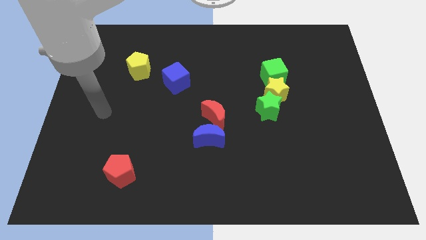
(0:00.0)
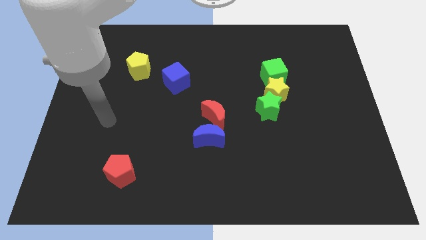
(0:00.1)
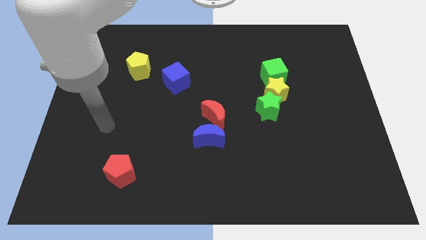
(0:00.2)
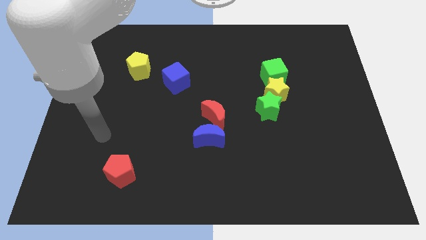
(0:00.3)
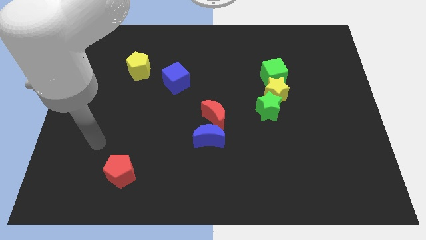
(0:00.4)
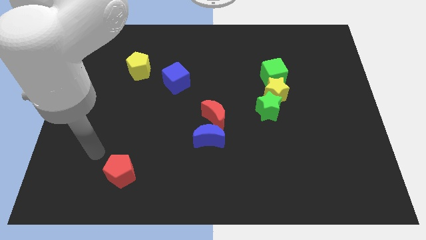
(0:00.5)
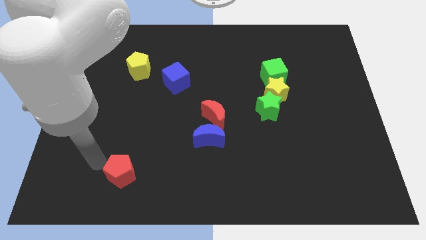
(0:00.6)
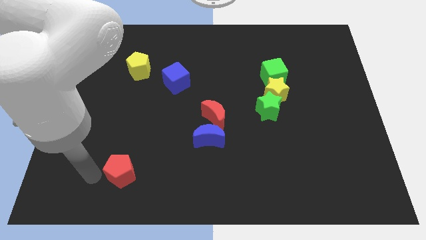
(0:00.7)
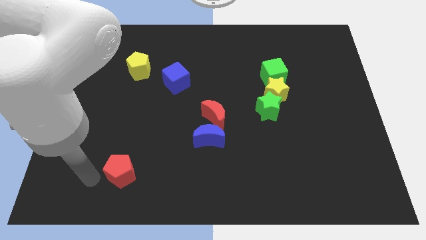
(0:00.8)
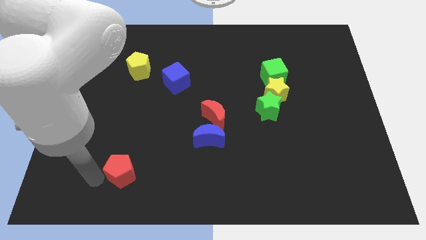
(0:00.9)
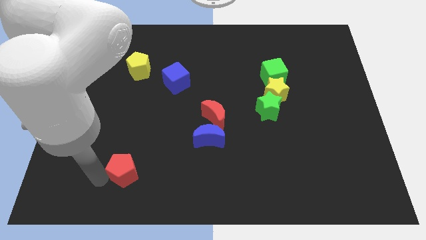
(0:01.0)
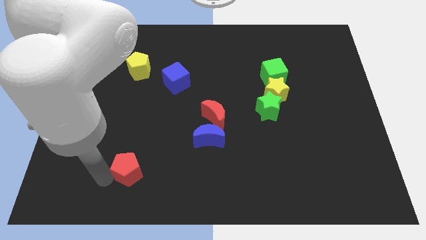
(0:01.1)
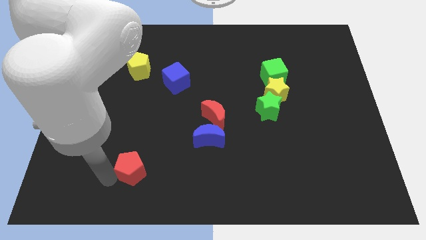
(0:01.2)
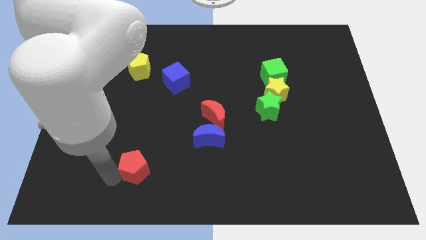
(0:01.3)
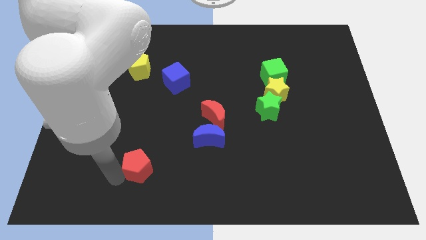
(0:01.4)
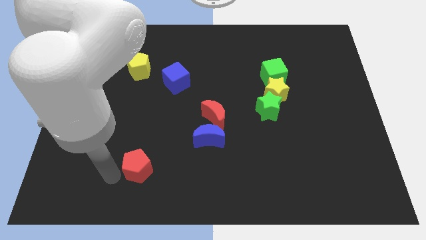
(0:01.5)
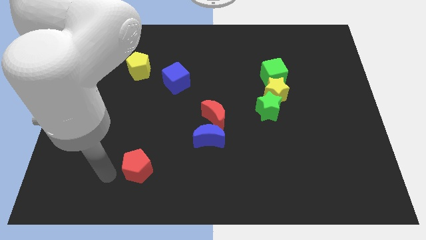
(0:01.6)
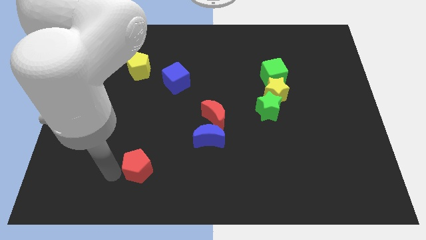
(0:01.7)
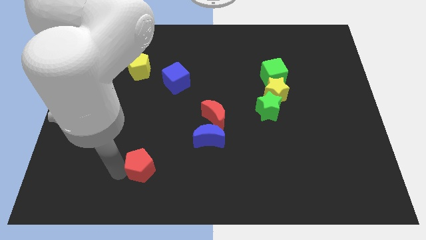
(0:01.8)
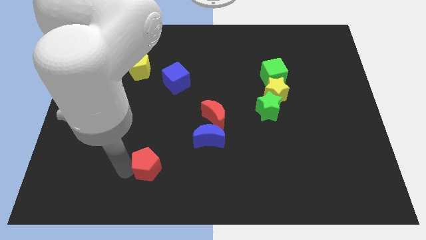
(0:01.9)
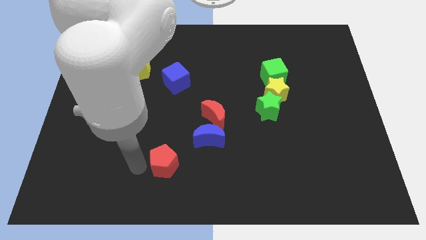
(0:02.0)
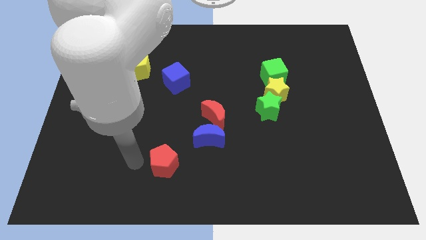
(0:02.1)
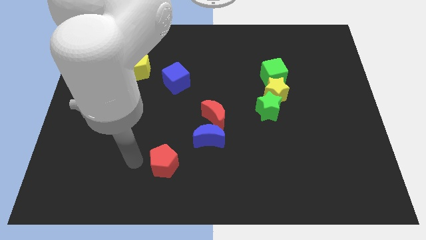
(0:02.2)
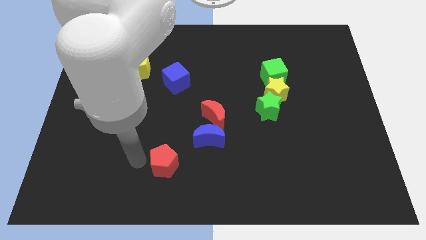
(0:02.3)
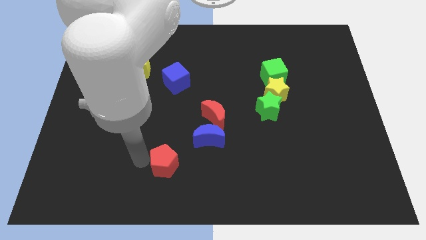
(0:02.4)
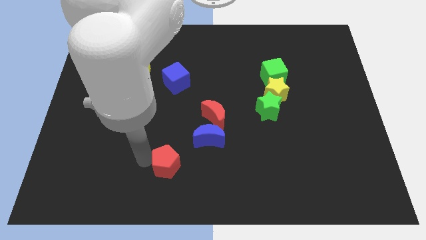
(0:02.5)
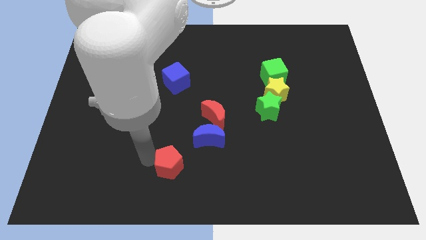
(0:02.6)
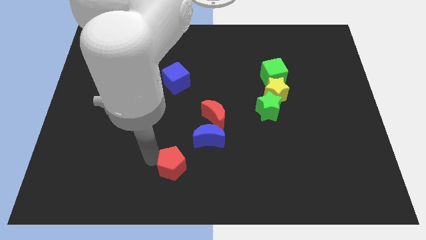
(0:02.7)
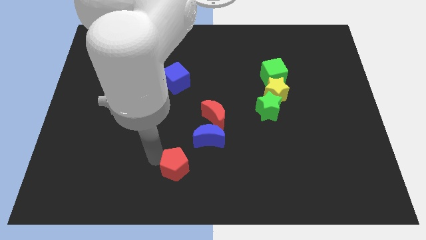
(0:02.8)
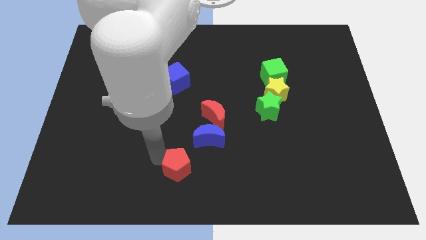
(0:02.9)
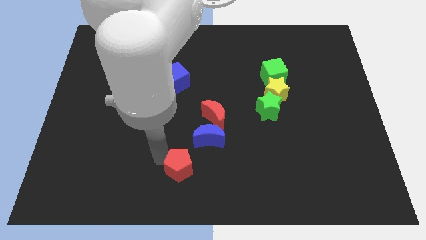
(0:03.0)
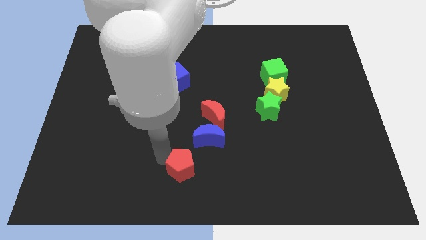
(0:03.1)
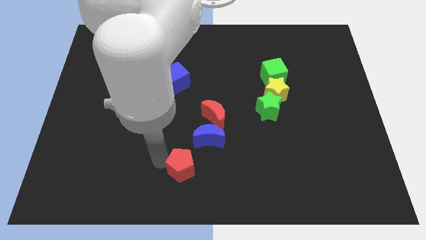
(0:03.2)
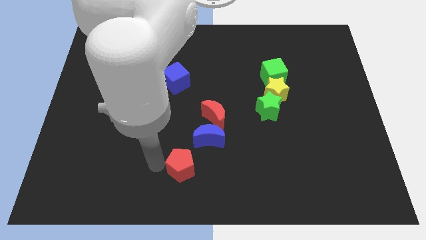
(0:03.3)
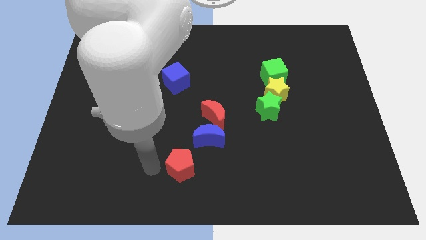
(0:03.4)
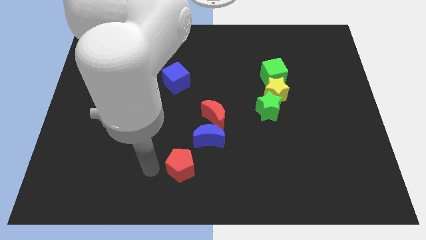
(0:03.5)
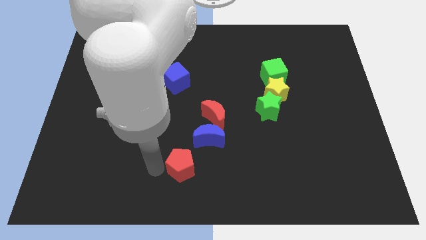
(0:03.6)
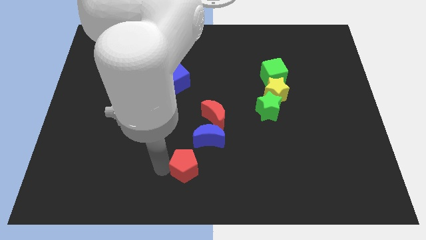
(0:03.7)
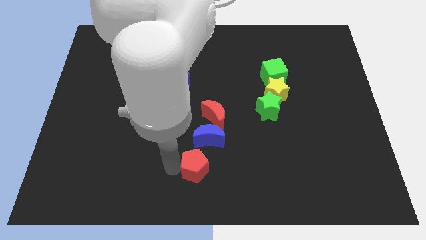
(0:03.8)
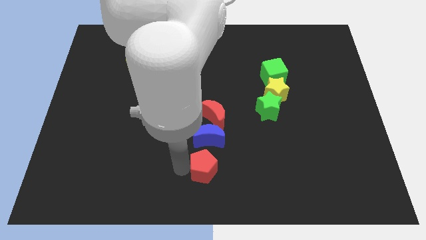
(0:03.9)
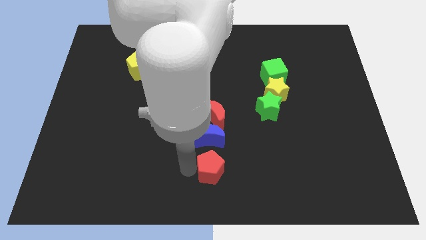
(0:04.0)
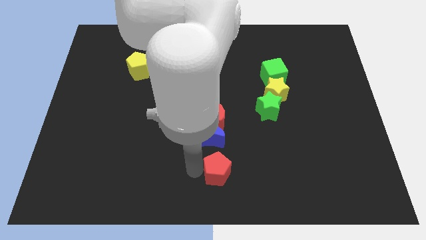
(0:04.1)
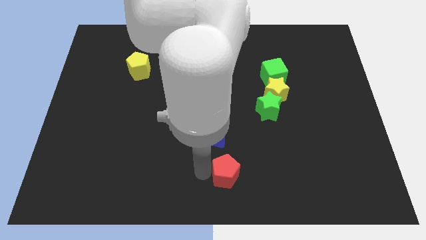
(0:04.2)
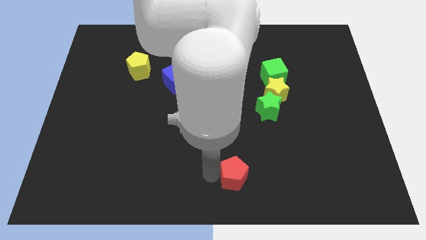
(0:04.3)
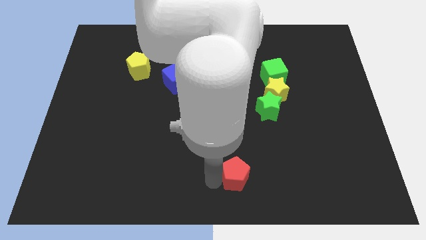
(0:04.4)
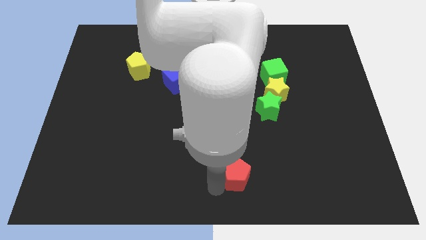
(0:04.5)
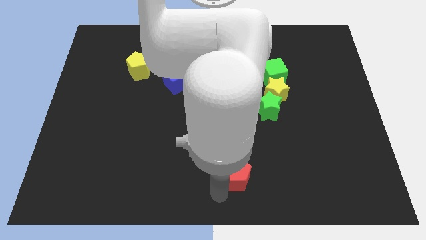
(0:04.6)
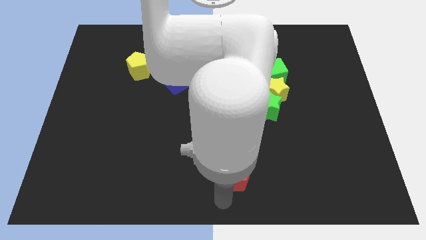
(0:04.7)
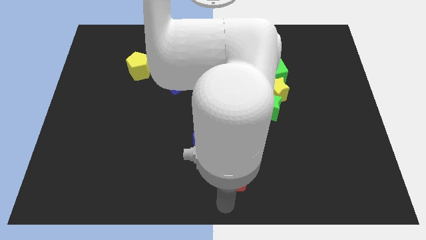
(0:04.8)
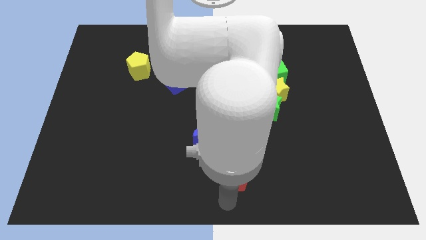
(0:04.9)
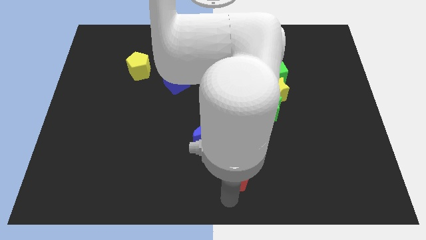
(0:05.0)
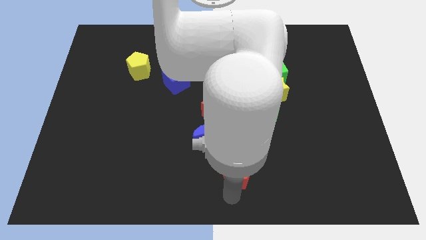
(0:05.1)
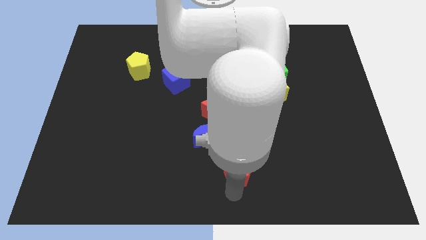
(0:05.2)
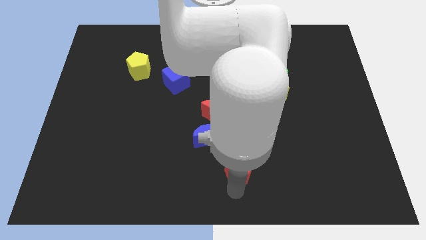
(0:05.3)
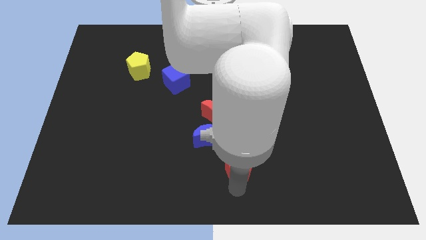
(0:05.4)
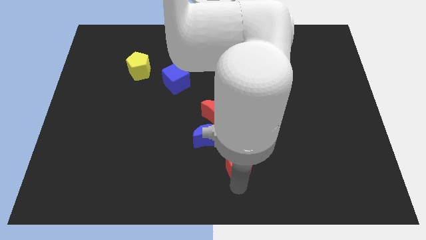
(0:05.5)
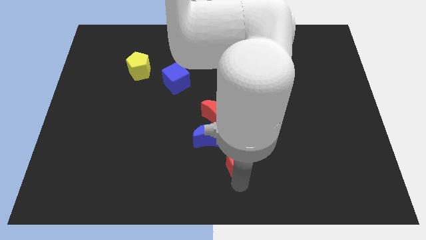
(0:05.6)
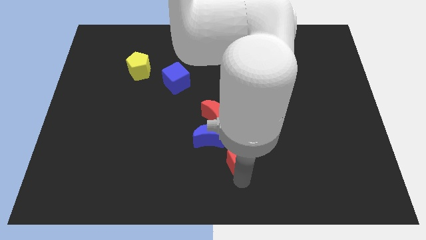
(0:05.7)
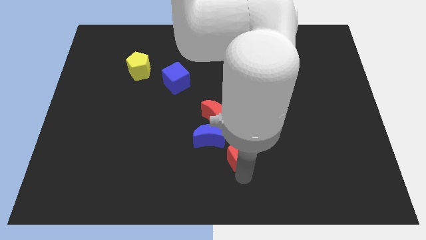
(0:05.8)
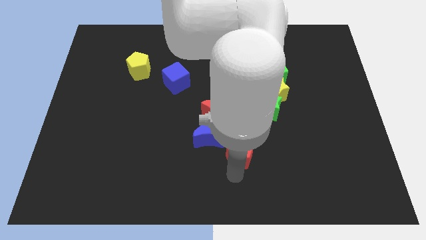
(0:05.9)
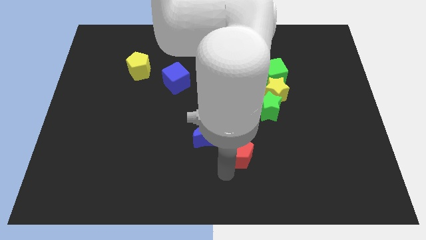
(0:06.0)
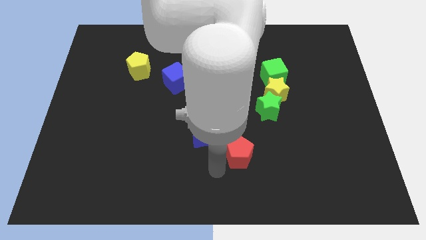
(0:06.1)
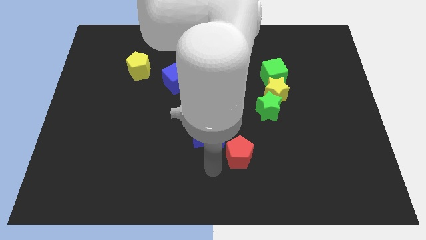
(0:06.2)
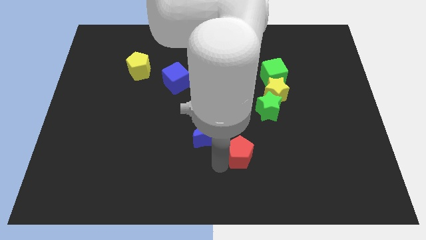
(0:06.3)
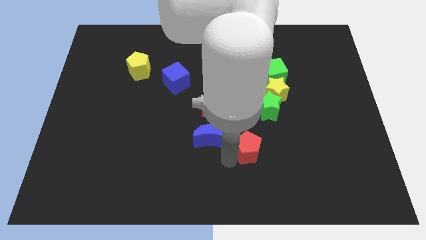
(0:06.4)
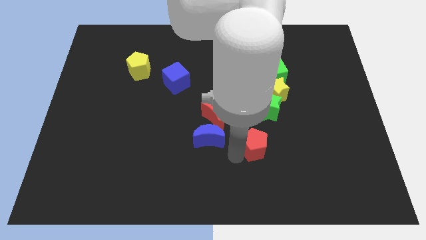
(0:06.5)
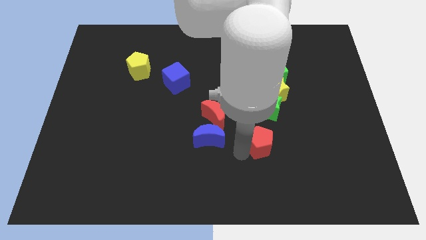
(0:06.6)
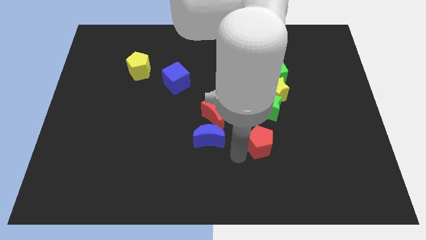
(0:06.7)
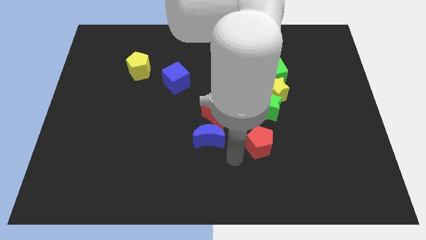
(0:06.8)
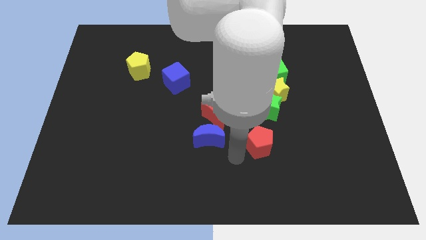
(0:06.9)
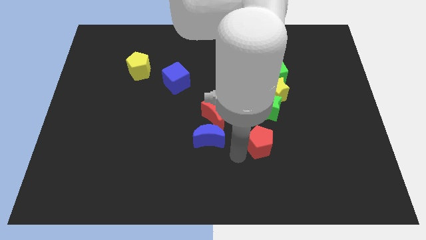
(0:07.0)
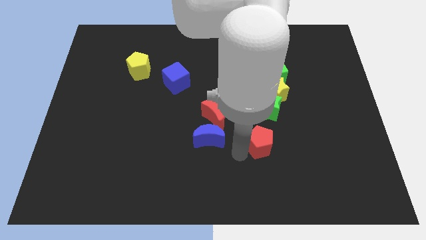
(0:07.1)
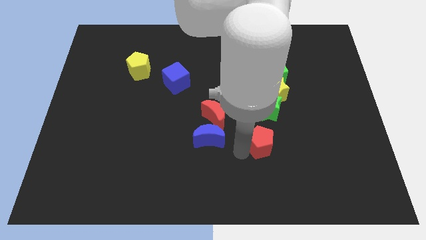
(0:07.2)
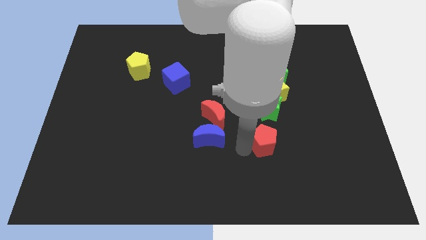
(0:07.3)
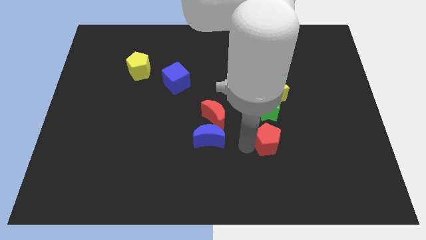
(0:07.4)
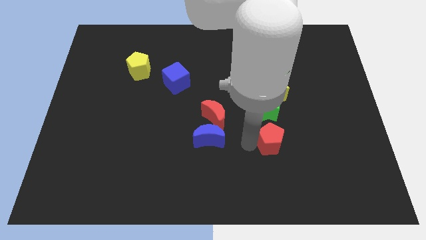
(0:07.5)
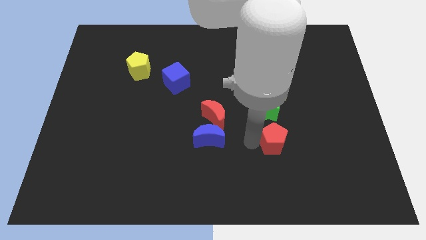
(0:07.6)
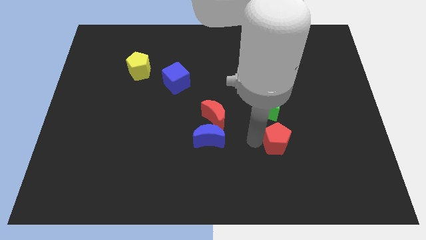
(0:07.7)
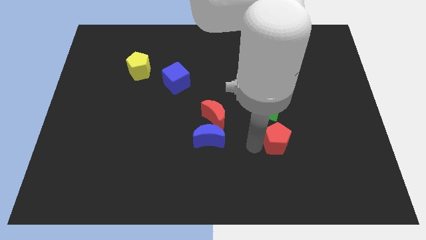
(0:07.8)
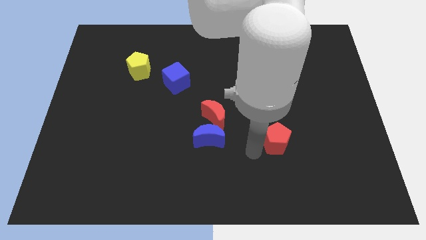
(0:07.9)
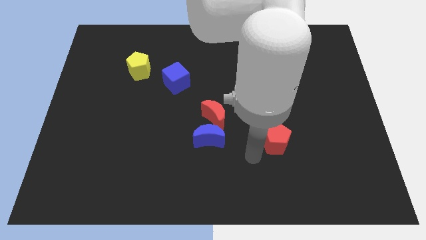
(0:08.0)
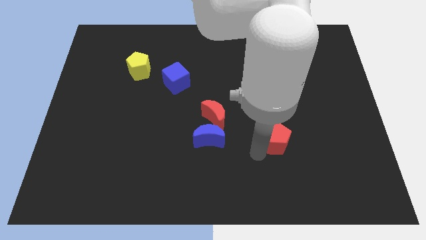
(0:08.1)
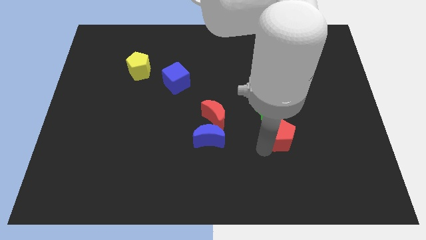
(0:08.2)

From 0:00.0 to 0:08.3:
move the red pentagon to the bottom right side of the green star
